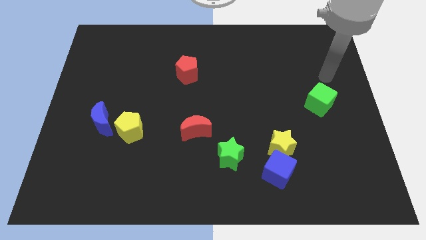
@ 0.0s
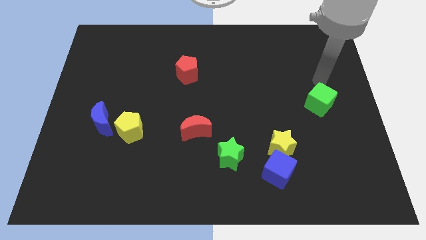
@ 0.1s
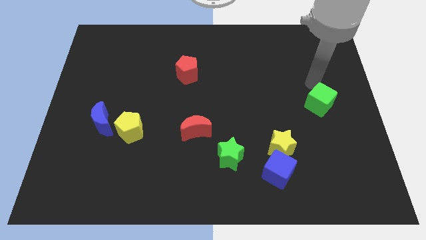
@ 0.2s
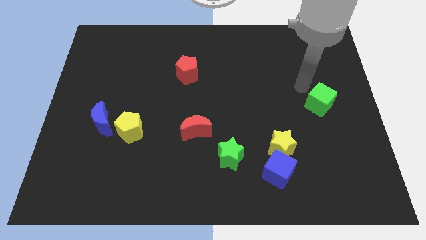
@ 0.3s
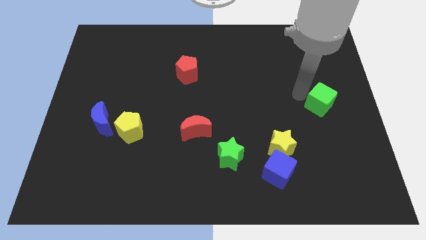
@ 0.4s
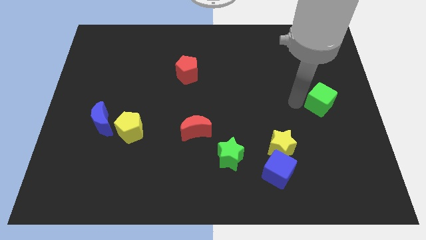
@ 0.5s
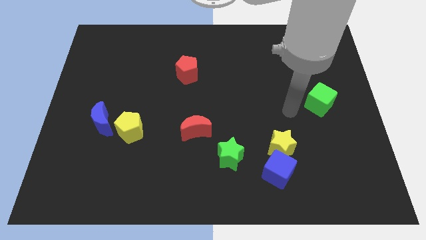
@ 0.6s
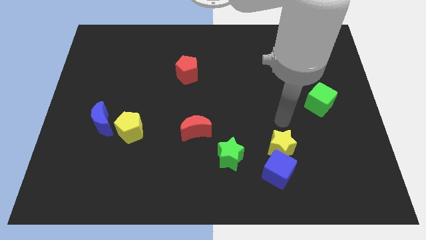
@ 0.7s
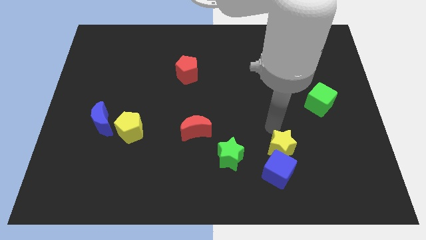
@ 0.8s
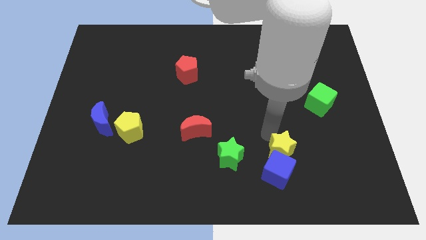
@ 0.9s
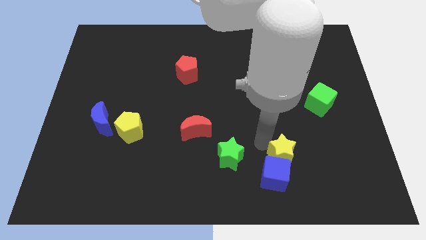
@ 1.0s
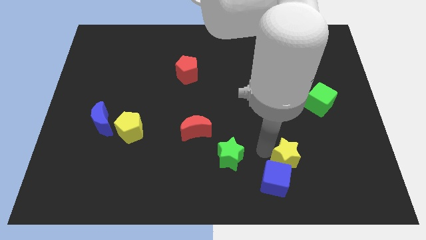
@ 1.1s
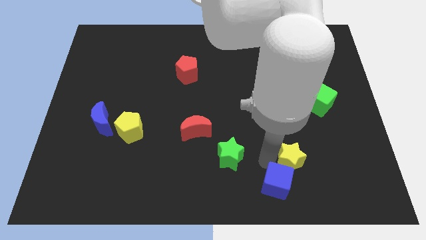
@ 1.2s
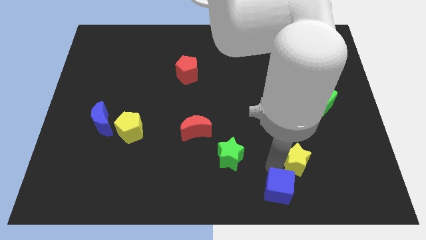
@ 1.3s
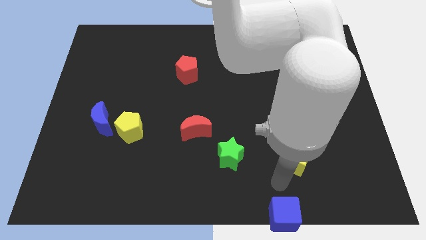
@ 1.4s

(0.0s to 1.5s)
move the yellow star away from the blue cube

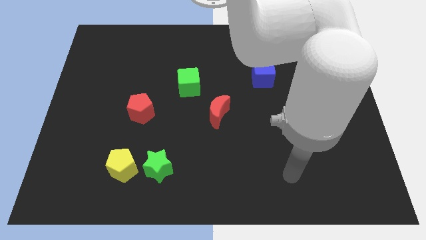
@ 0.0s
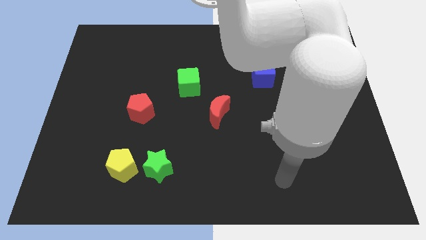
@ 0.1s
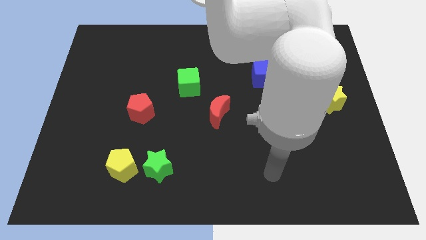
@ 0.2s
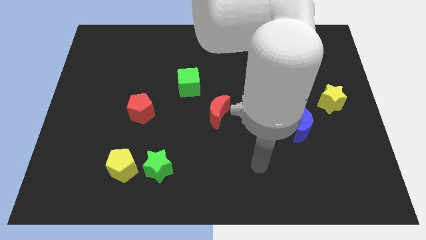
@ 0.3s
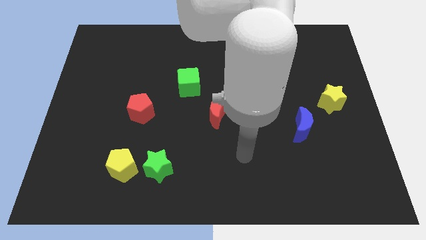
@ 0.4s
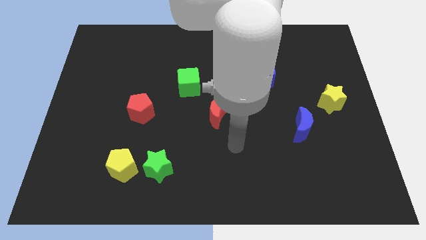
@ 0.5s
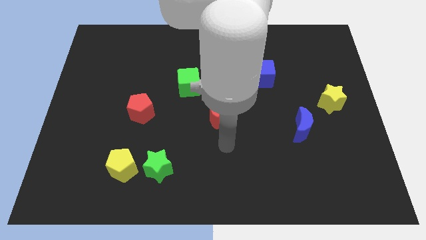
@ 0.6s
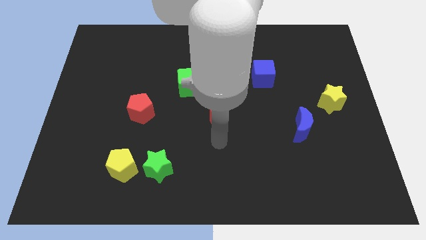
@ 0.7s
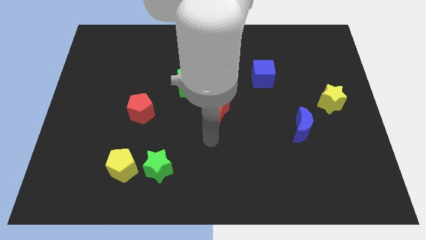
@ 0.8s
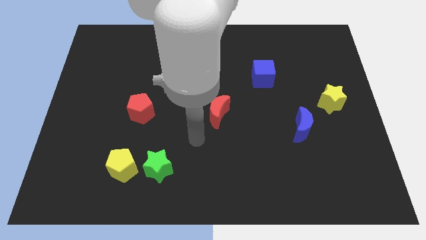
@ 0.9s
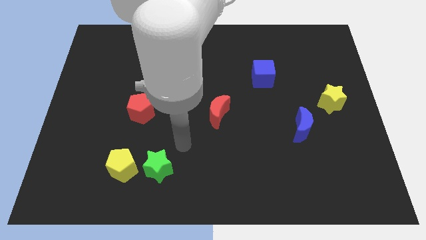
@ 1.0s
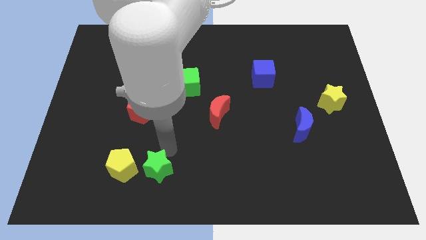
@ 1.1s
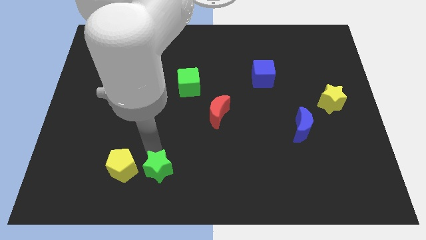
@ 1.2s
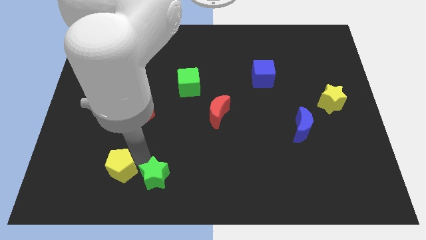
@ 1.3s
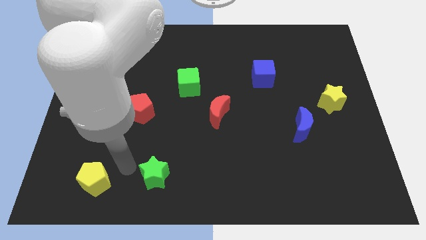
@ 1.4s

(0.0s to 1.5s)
move the green star away from the yellow pentagon

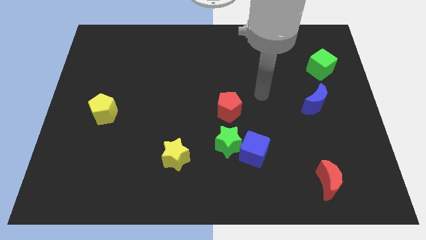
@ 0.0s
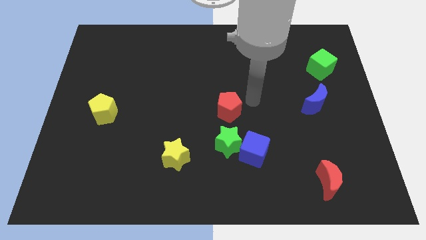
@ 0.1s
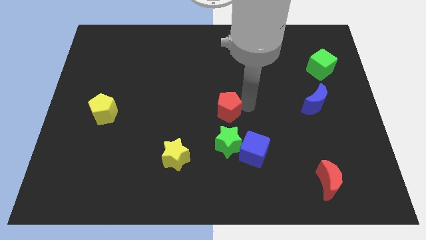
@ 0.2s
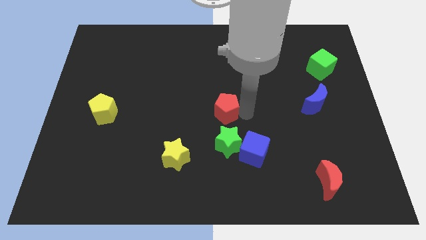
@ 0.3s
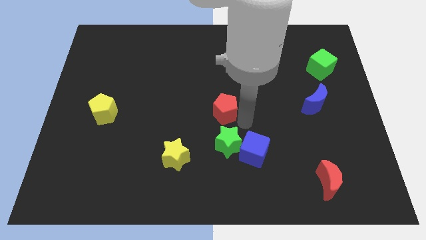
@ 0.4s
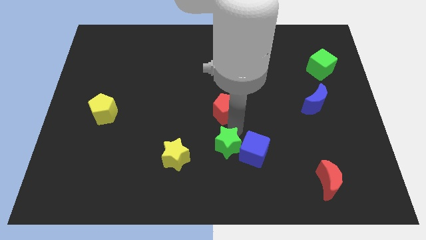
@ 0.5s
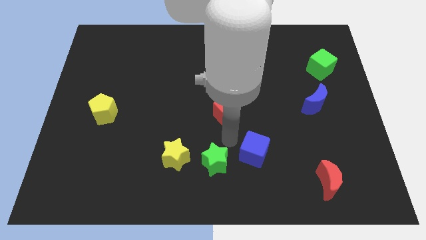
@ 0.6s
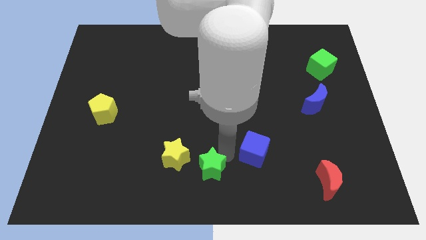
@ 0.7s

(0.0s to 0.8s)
move the blue cube away from the green star

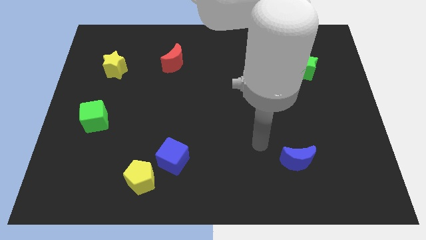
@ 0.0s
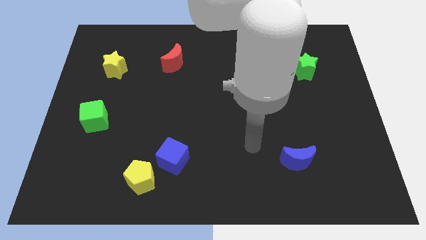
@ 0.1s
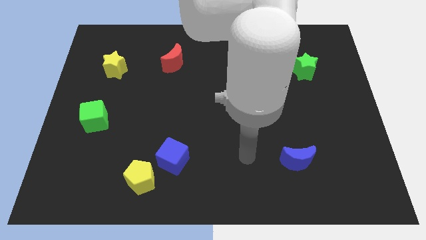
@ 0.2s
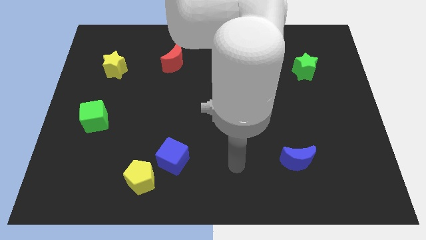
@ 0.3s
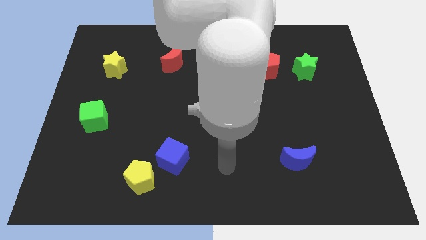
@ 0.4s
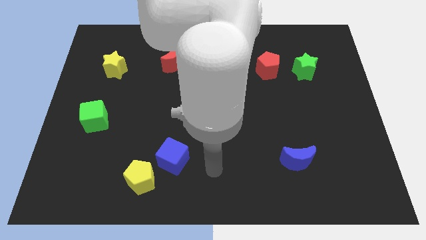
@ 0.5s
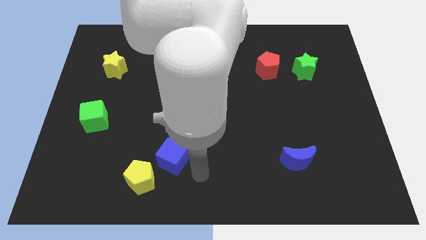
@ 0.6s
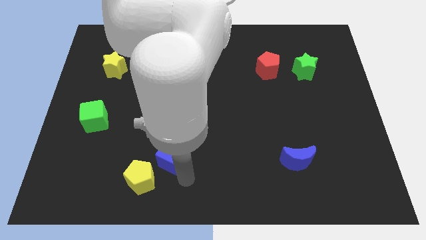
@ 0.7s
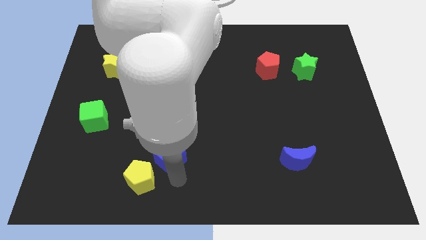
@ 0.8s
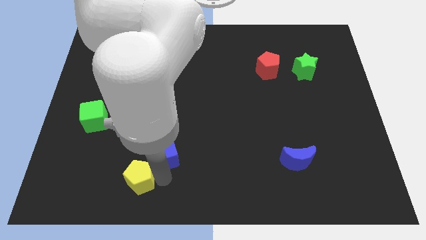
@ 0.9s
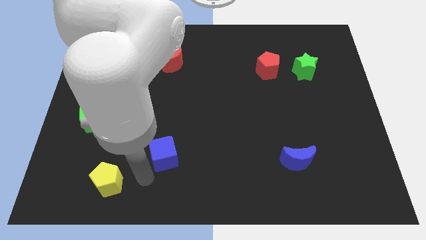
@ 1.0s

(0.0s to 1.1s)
move the blue cube away from the yellow pentagon

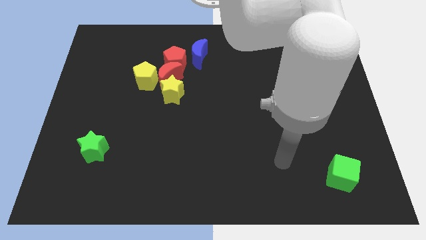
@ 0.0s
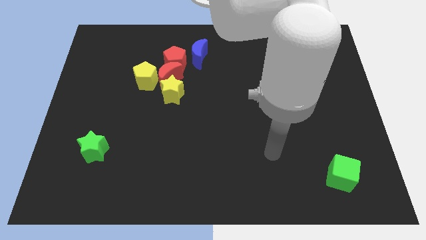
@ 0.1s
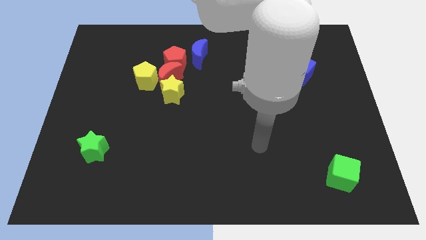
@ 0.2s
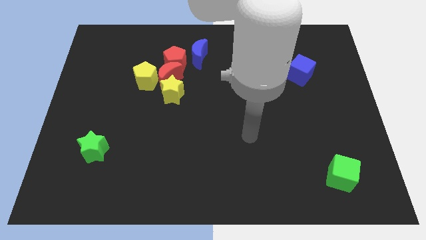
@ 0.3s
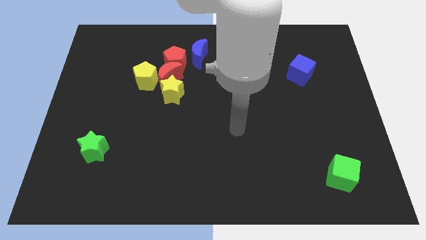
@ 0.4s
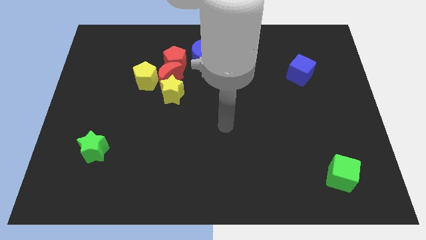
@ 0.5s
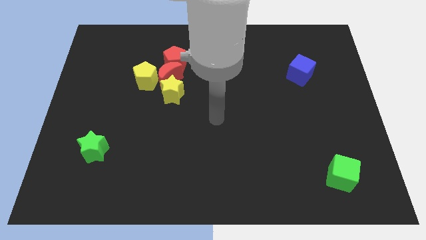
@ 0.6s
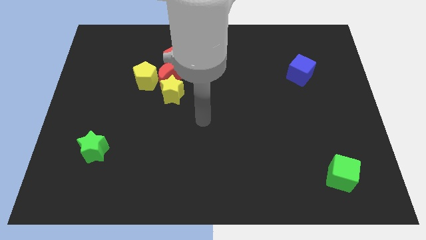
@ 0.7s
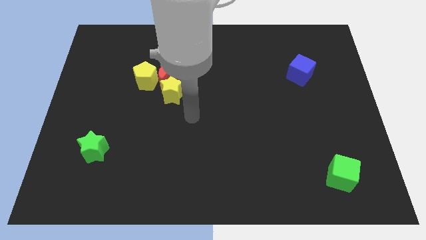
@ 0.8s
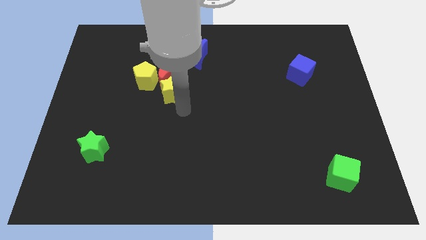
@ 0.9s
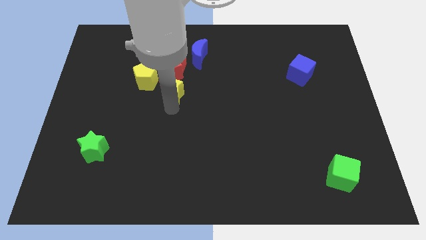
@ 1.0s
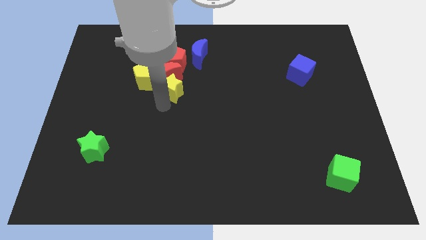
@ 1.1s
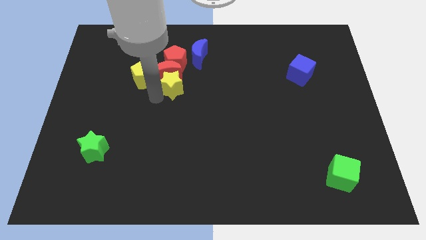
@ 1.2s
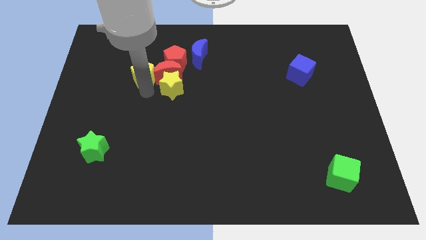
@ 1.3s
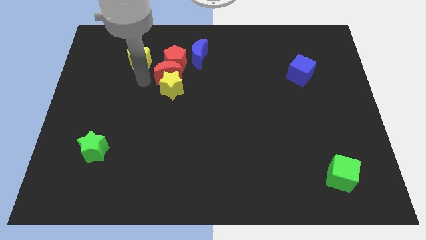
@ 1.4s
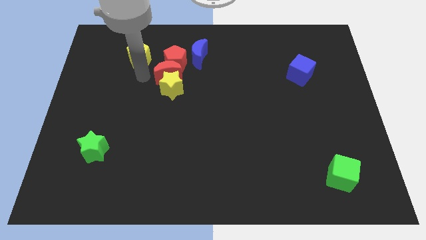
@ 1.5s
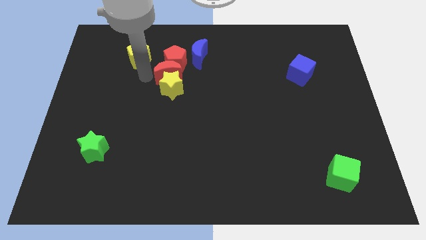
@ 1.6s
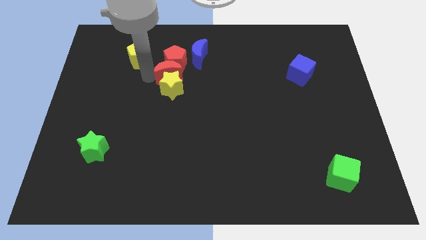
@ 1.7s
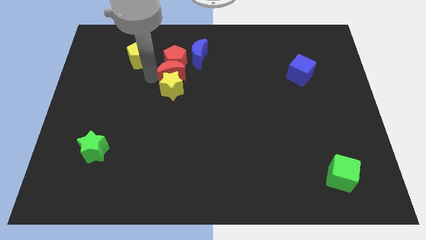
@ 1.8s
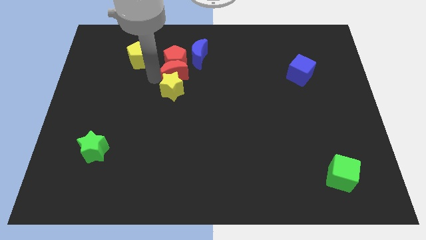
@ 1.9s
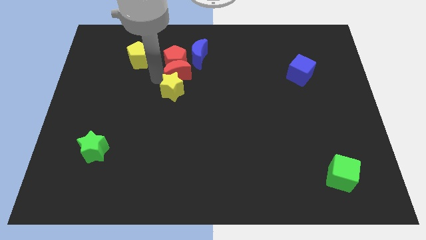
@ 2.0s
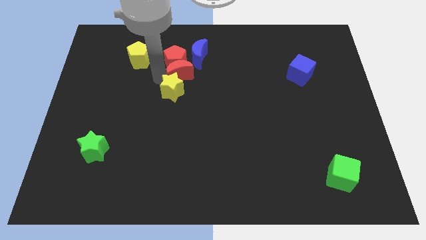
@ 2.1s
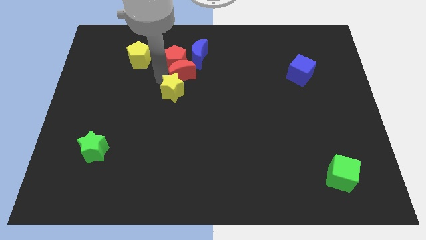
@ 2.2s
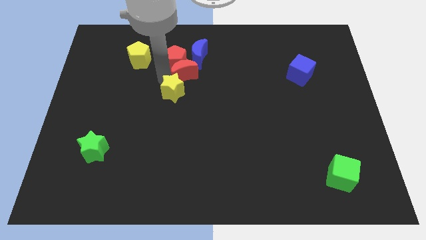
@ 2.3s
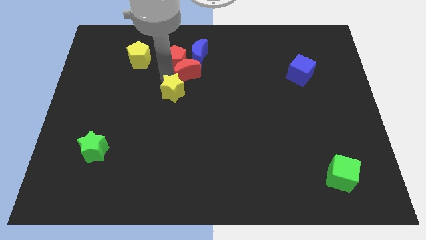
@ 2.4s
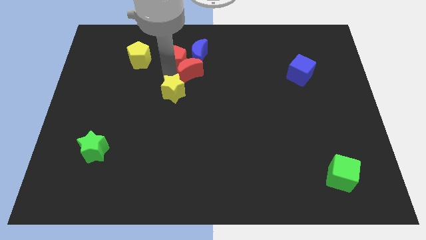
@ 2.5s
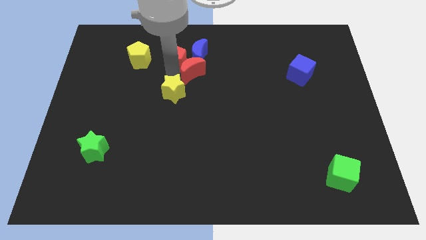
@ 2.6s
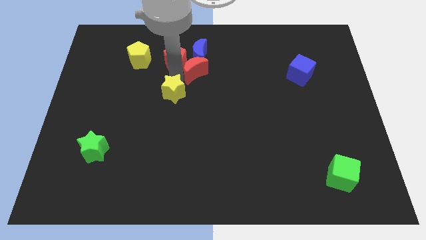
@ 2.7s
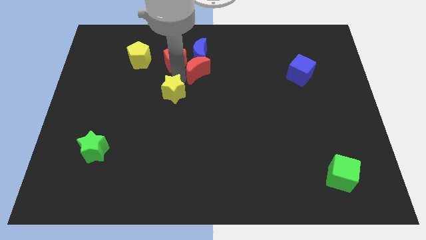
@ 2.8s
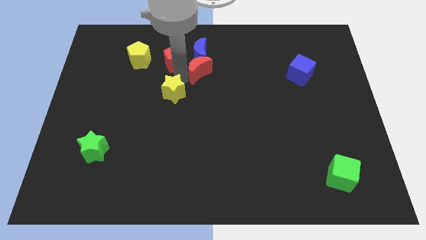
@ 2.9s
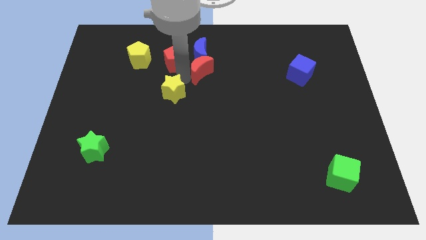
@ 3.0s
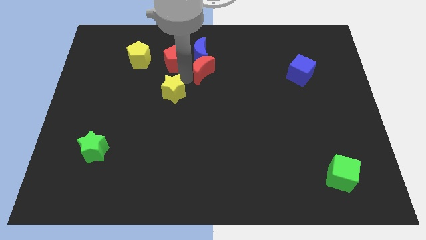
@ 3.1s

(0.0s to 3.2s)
separate the red moon from the clump

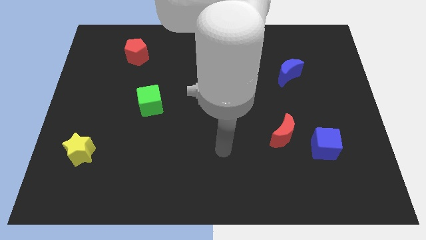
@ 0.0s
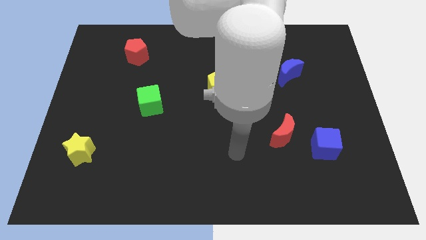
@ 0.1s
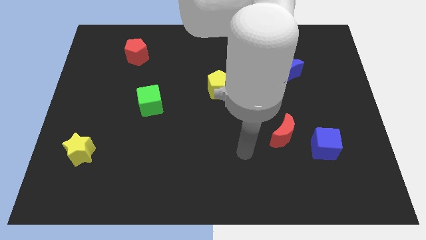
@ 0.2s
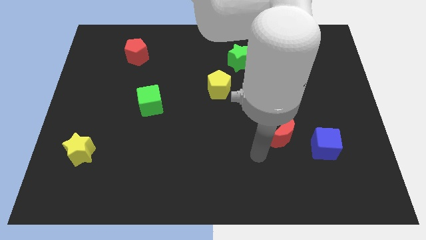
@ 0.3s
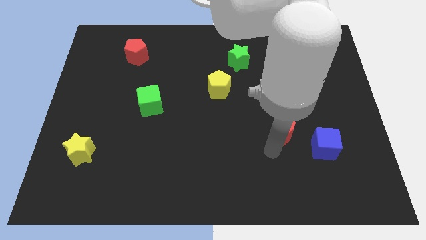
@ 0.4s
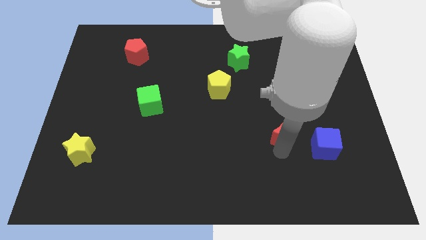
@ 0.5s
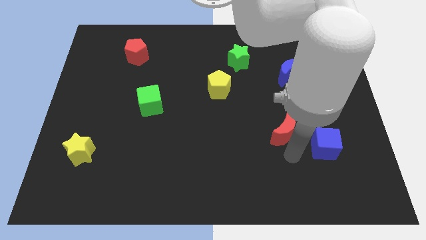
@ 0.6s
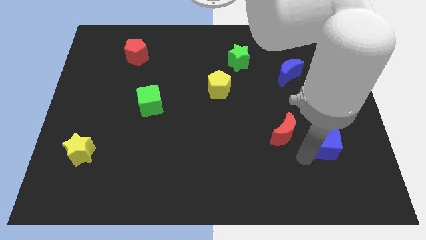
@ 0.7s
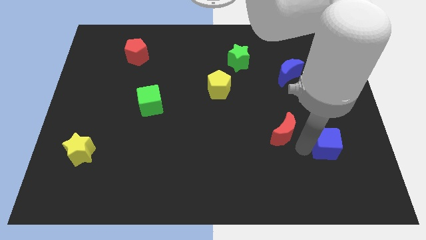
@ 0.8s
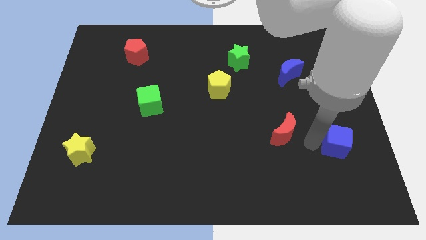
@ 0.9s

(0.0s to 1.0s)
pull the red moon apart from the blue cube

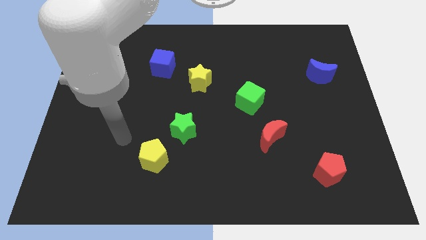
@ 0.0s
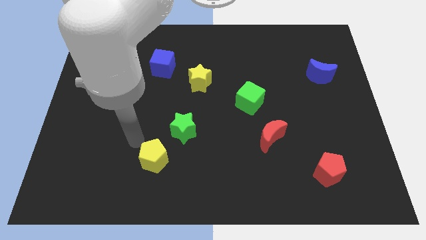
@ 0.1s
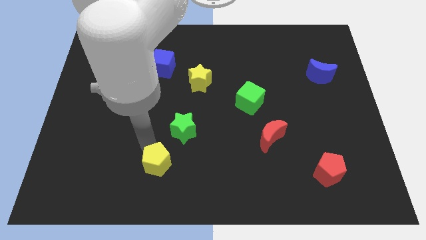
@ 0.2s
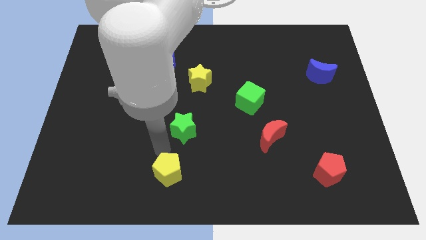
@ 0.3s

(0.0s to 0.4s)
pull the green star apart from the yellow pentagon
